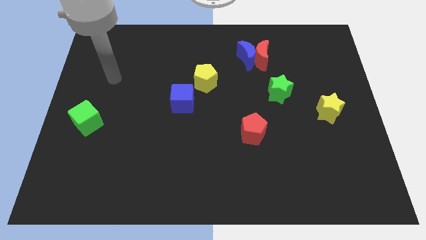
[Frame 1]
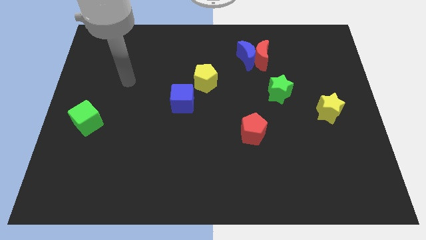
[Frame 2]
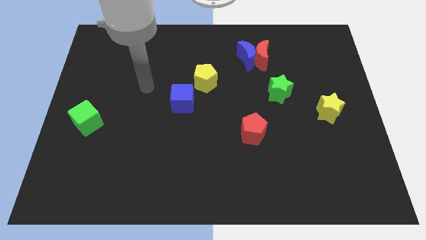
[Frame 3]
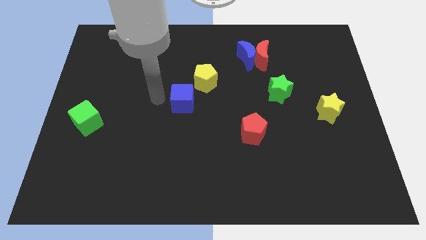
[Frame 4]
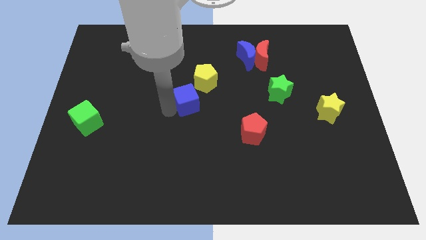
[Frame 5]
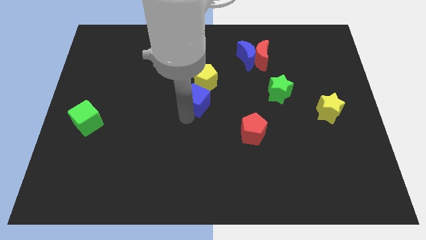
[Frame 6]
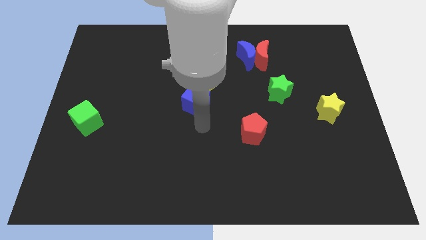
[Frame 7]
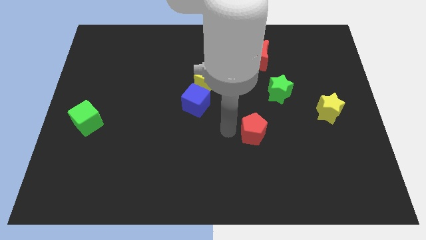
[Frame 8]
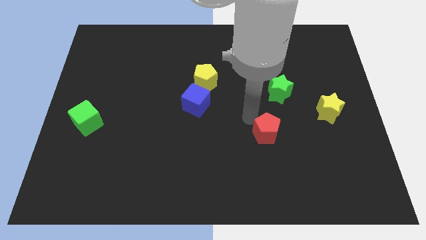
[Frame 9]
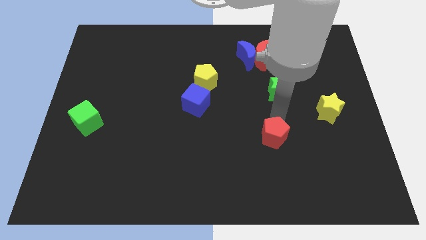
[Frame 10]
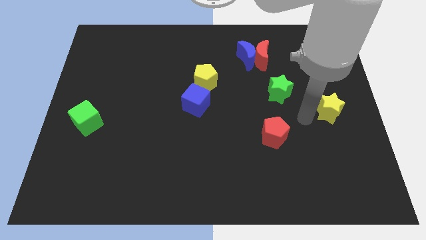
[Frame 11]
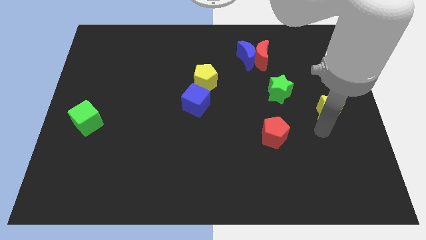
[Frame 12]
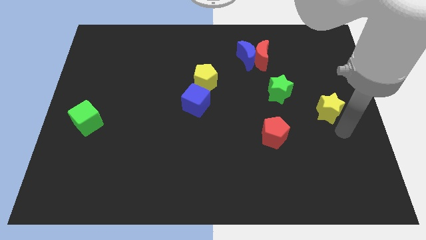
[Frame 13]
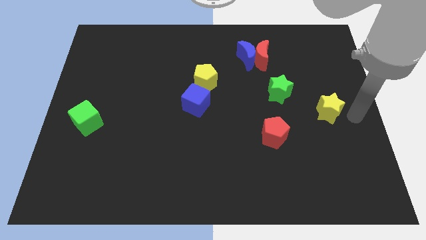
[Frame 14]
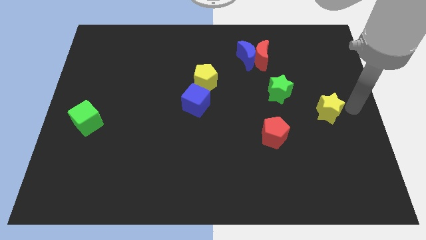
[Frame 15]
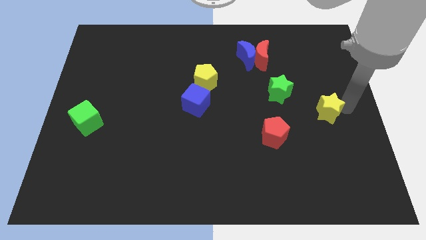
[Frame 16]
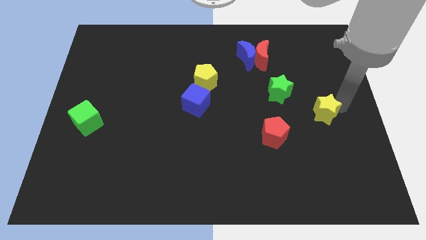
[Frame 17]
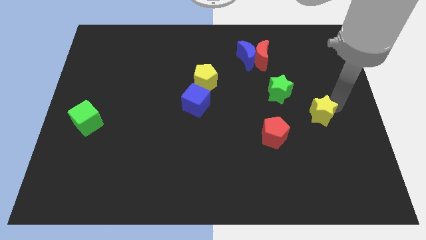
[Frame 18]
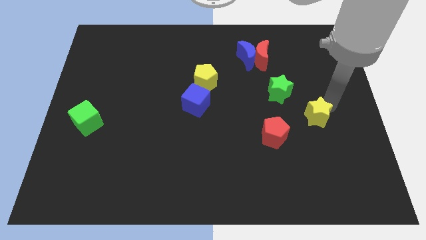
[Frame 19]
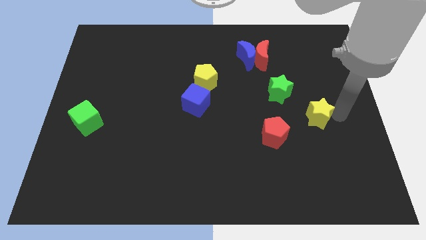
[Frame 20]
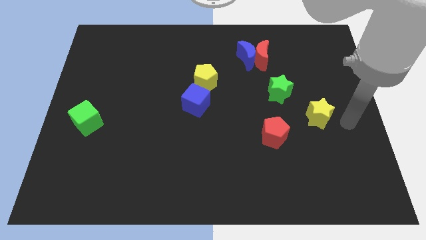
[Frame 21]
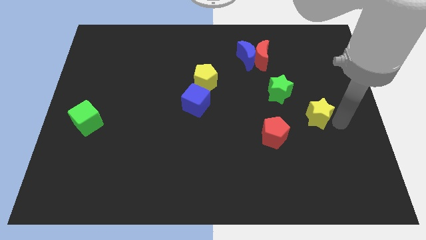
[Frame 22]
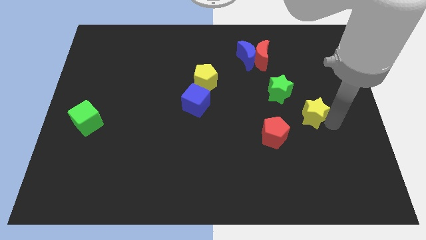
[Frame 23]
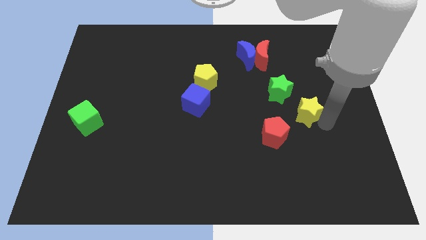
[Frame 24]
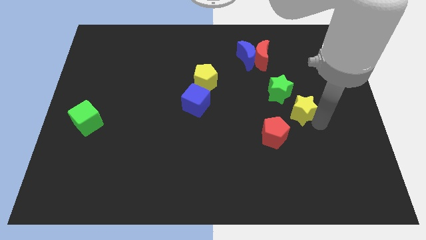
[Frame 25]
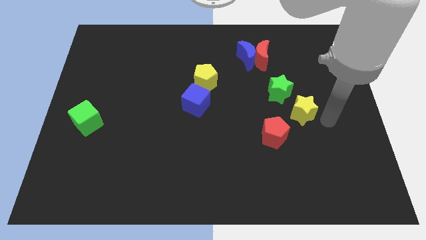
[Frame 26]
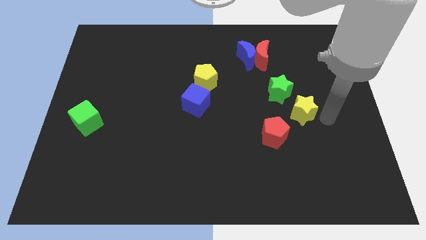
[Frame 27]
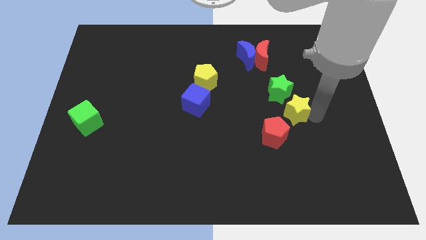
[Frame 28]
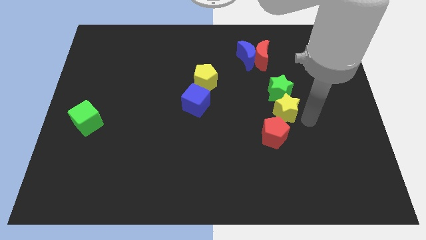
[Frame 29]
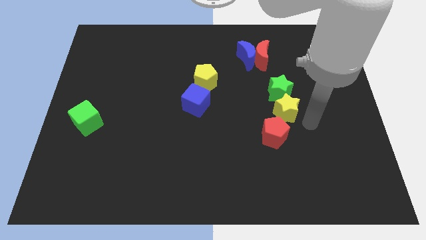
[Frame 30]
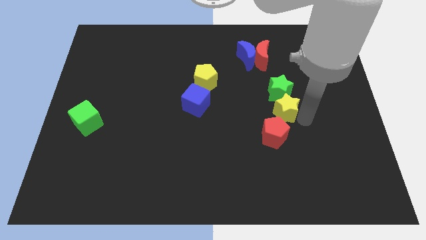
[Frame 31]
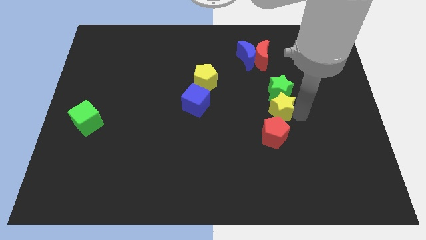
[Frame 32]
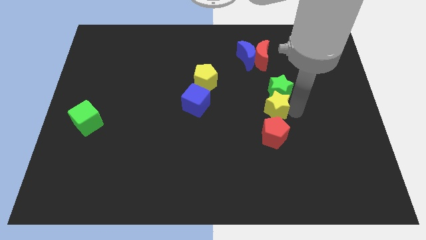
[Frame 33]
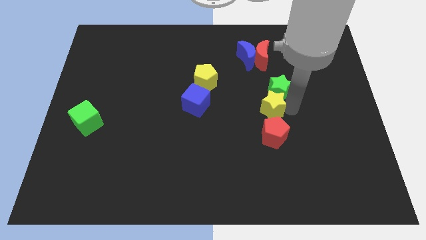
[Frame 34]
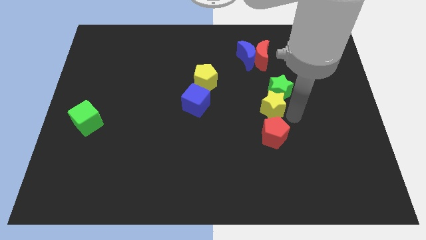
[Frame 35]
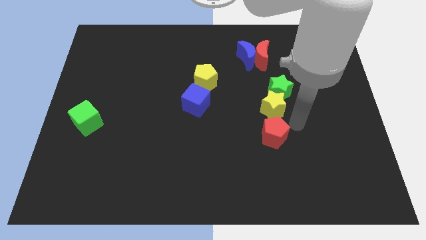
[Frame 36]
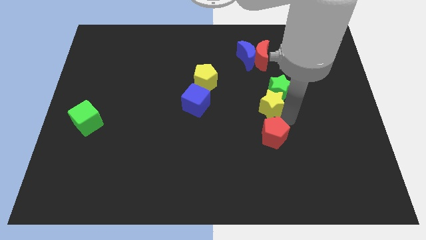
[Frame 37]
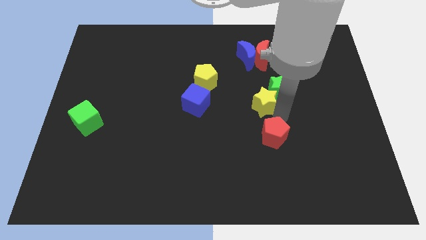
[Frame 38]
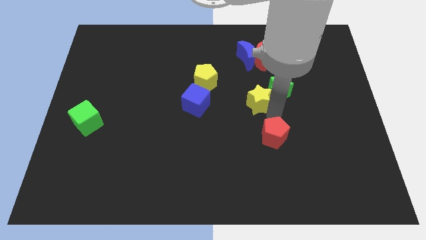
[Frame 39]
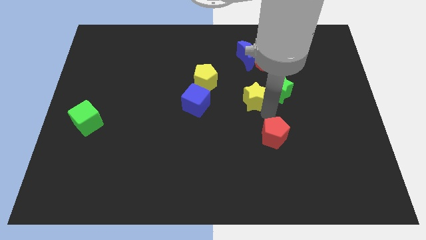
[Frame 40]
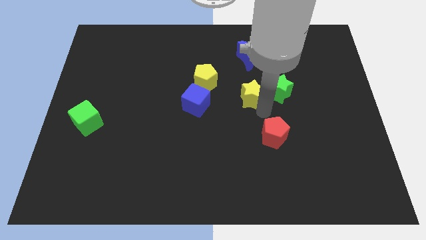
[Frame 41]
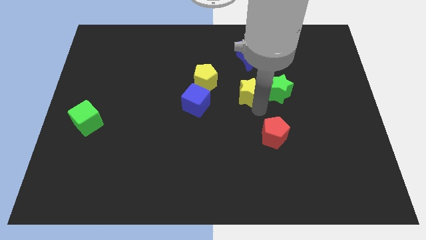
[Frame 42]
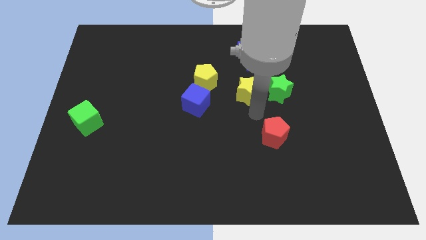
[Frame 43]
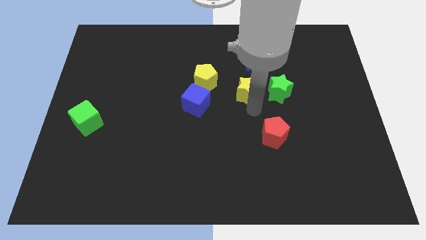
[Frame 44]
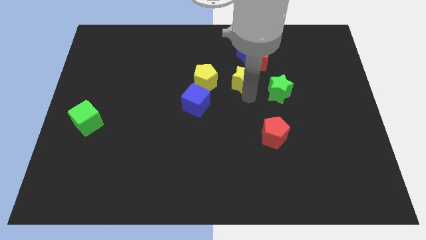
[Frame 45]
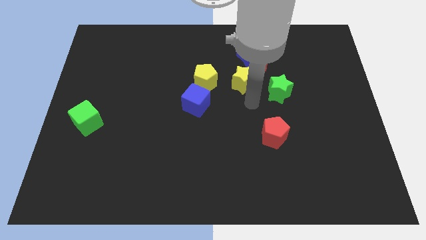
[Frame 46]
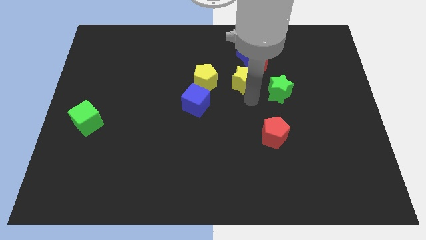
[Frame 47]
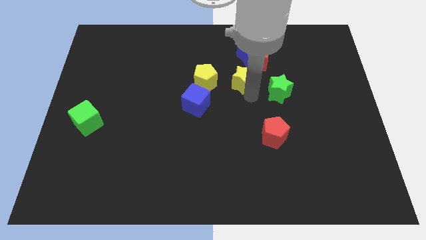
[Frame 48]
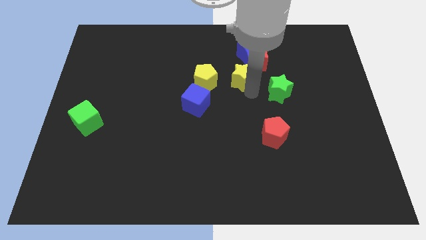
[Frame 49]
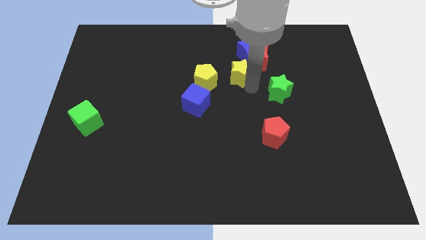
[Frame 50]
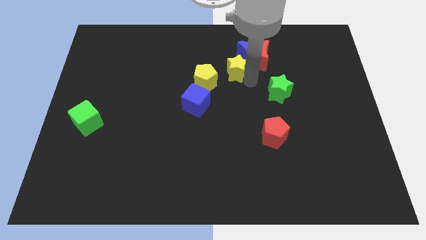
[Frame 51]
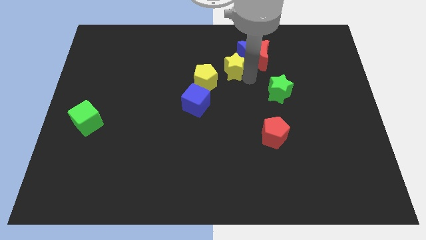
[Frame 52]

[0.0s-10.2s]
slide the yellow star just left of the blue moon

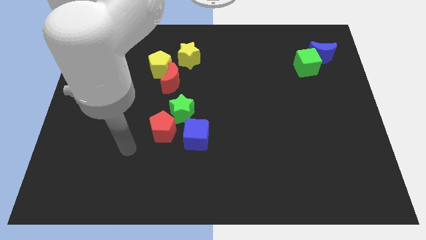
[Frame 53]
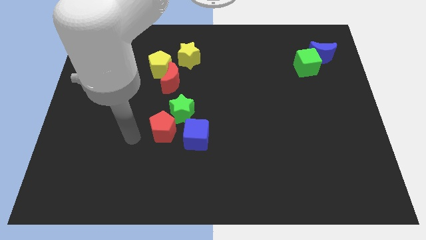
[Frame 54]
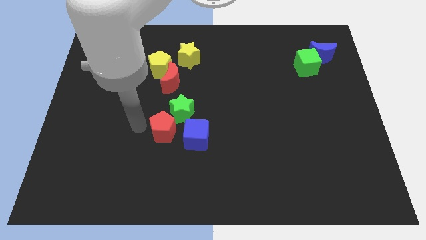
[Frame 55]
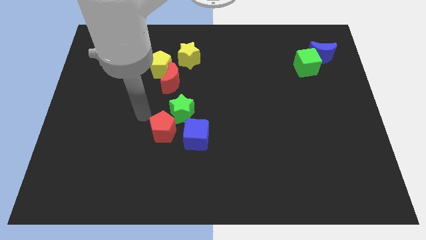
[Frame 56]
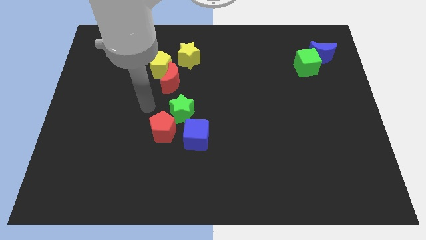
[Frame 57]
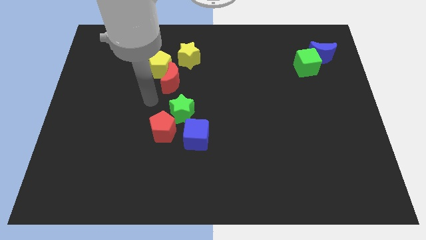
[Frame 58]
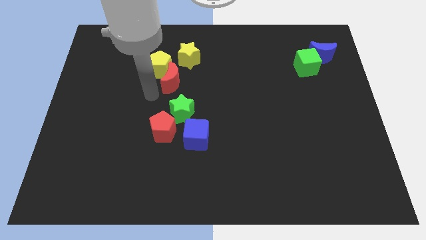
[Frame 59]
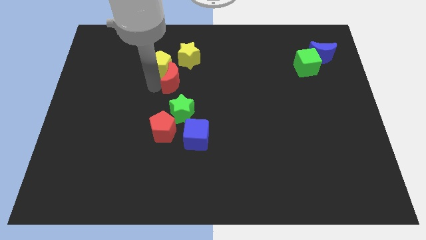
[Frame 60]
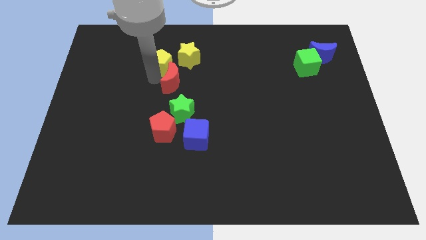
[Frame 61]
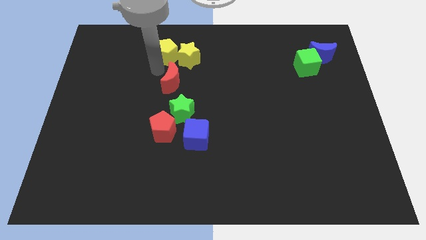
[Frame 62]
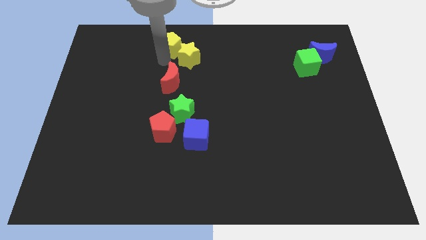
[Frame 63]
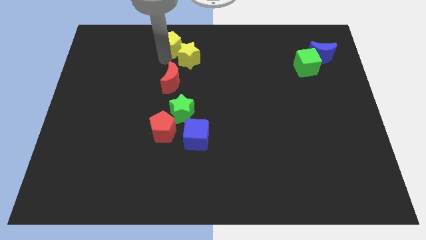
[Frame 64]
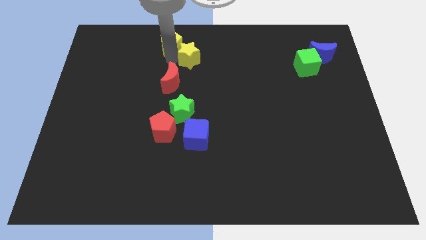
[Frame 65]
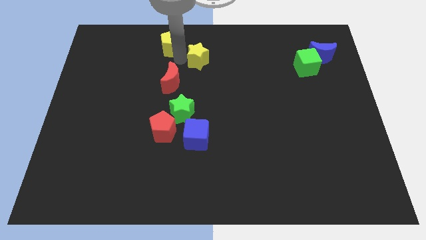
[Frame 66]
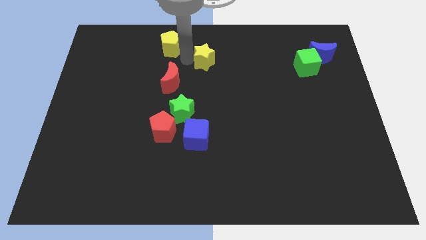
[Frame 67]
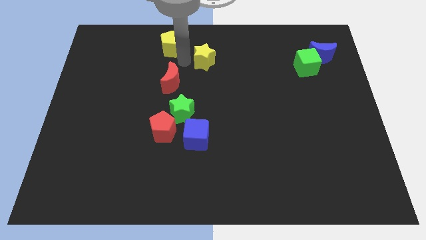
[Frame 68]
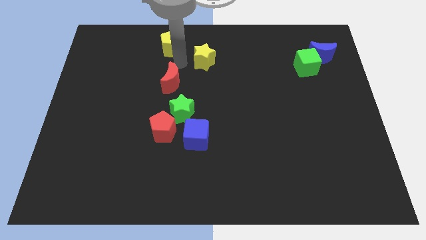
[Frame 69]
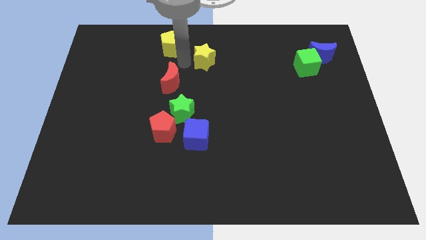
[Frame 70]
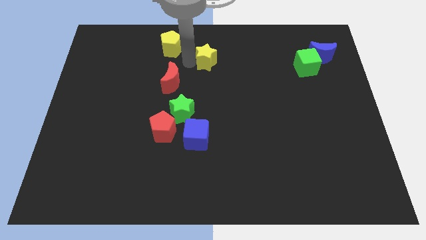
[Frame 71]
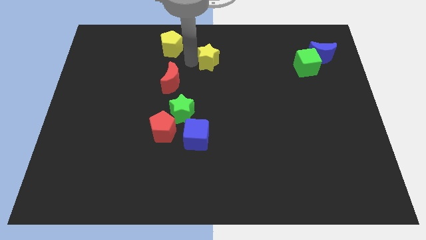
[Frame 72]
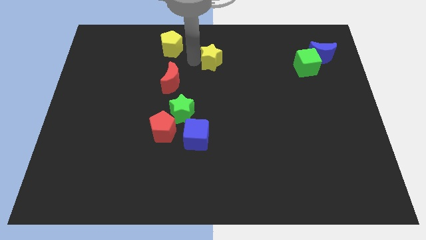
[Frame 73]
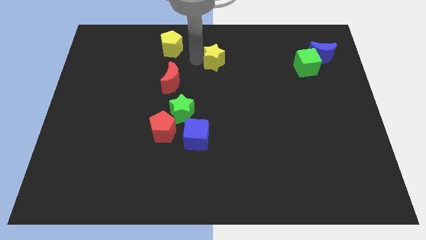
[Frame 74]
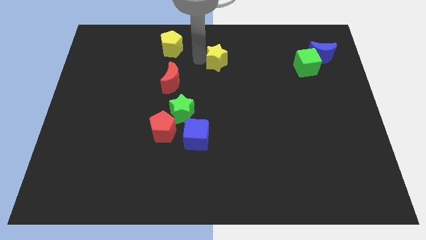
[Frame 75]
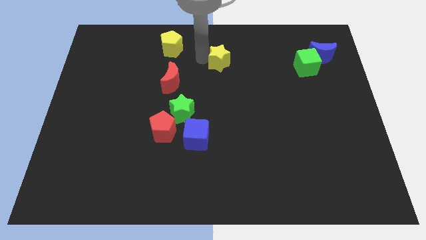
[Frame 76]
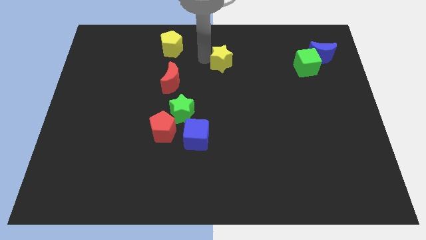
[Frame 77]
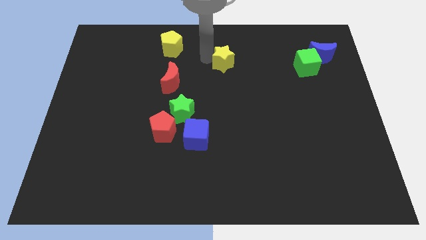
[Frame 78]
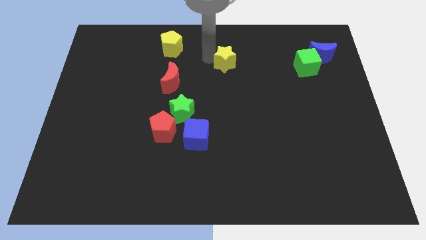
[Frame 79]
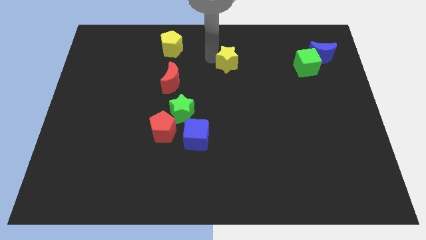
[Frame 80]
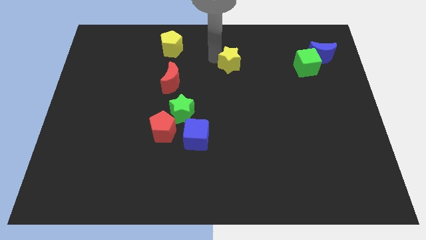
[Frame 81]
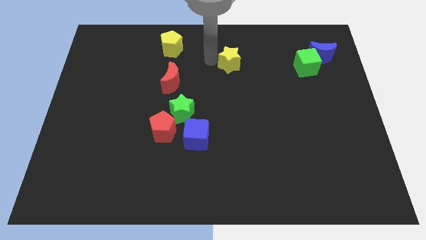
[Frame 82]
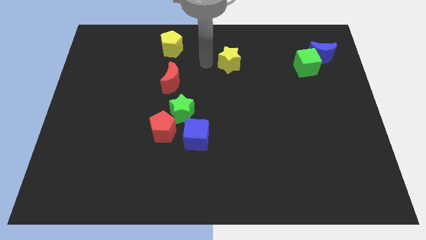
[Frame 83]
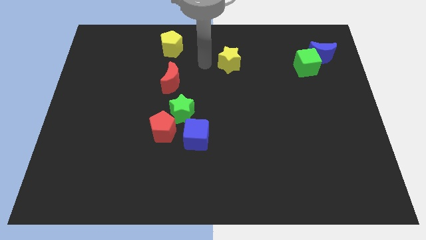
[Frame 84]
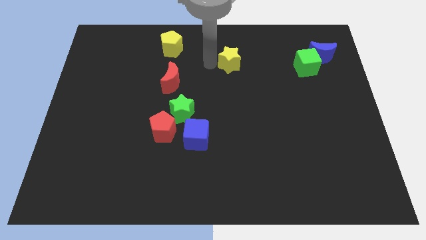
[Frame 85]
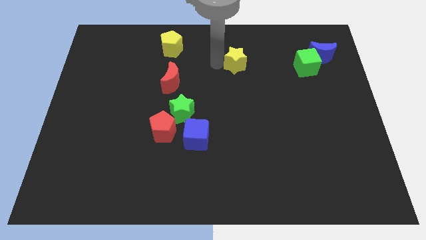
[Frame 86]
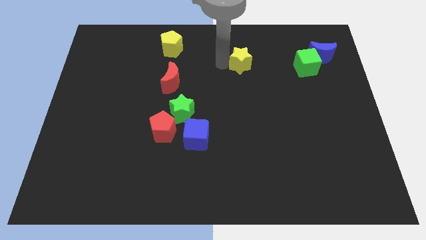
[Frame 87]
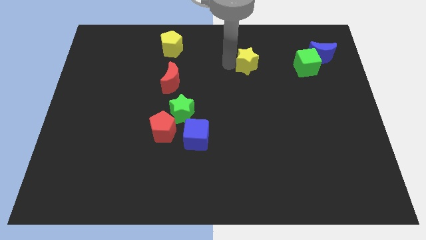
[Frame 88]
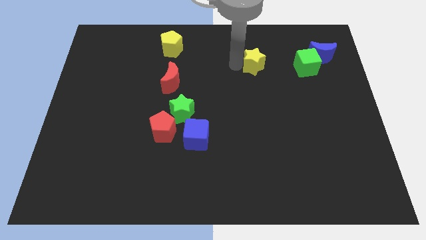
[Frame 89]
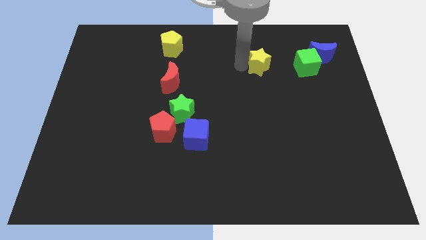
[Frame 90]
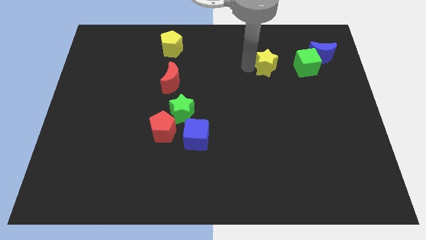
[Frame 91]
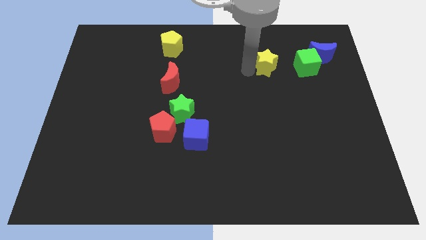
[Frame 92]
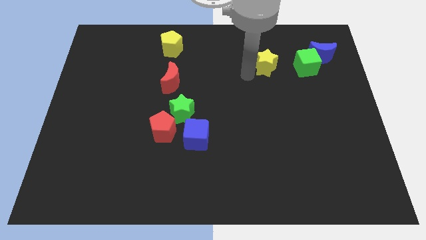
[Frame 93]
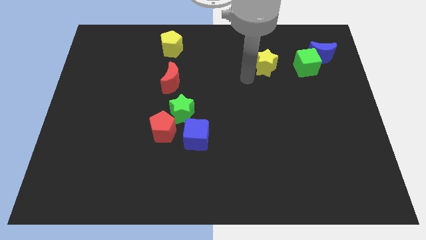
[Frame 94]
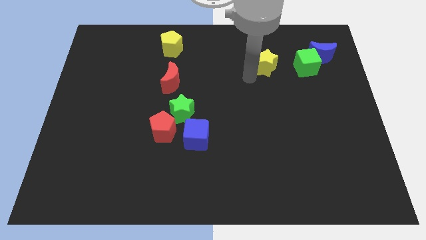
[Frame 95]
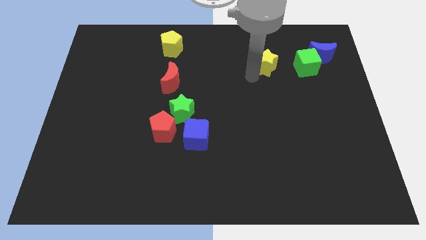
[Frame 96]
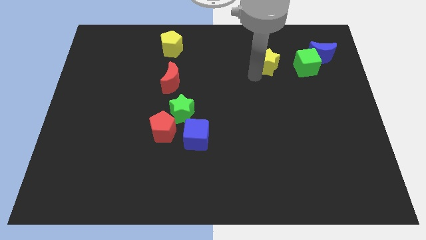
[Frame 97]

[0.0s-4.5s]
move the yellow star left of the blue moon
